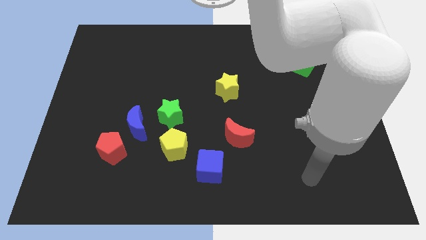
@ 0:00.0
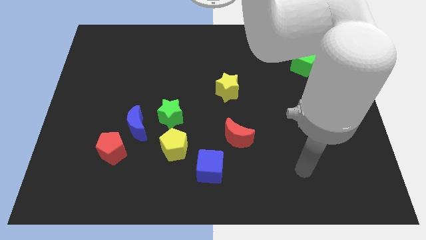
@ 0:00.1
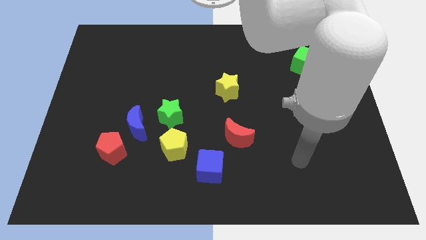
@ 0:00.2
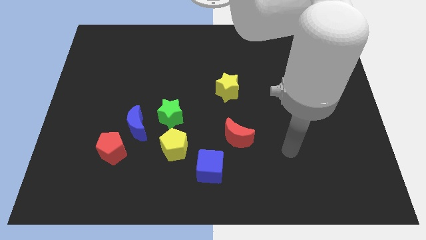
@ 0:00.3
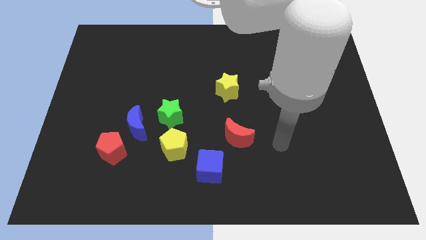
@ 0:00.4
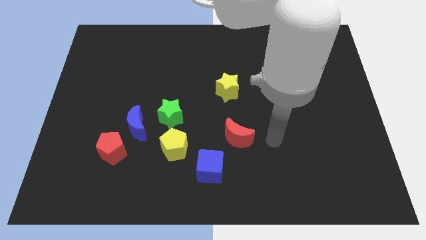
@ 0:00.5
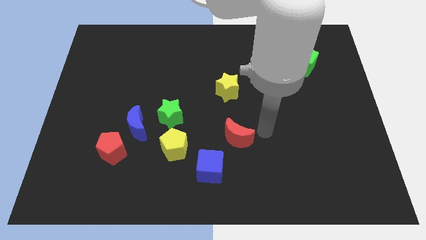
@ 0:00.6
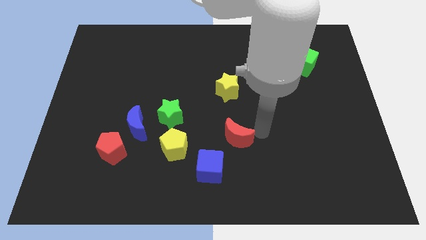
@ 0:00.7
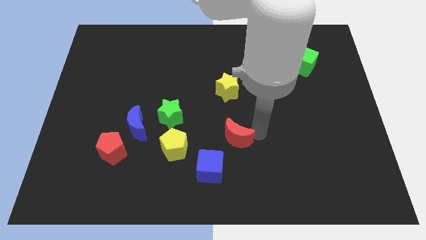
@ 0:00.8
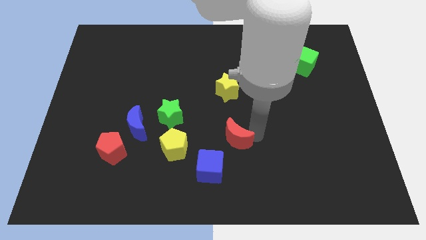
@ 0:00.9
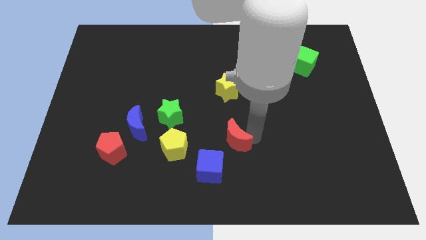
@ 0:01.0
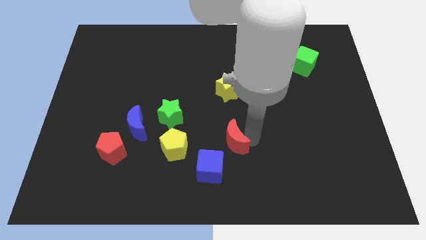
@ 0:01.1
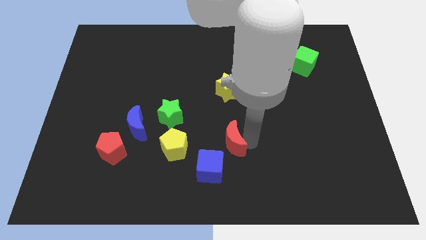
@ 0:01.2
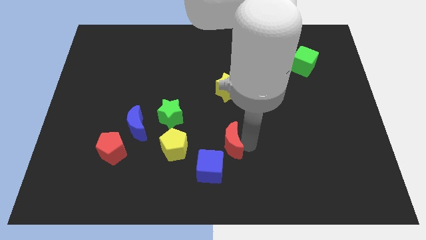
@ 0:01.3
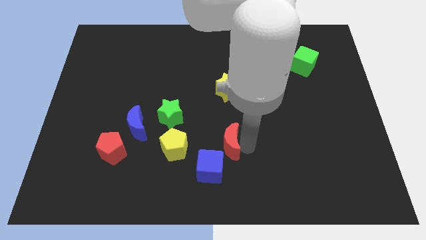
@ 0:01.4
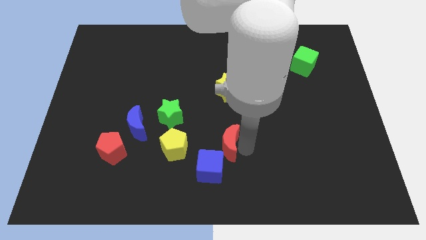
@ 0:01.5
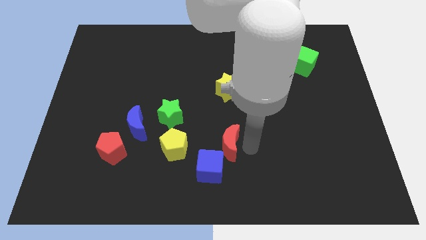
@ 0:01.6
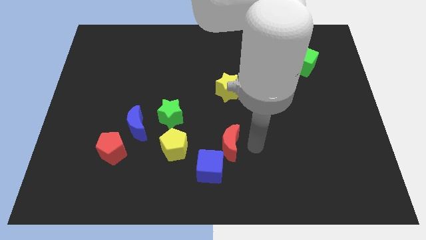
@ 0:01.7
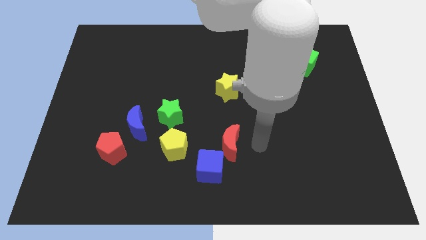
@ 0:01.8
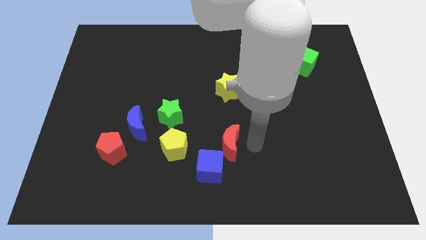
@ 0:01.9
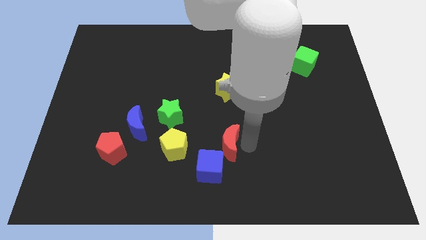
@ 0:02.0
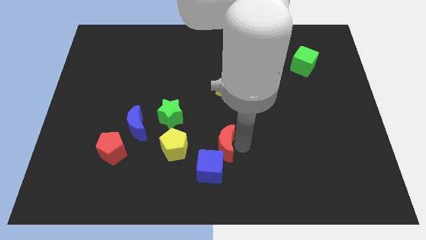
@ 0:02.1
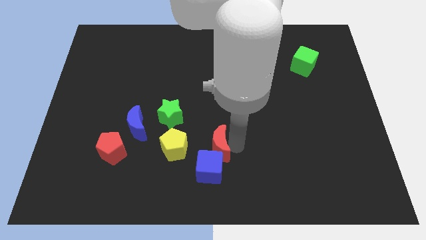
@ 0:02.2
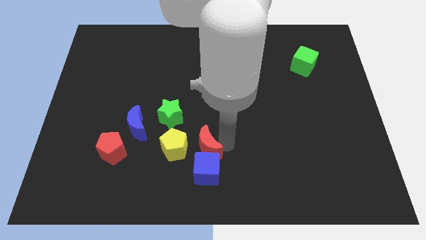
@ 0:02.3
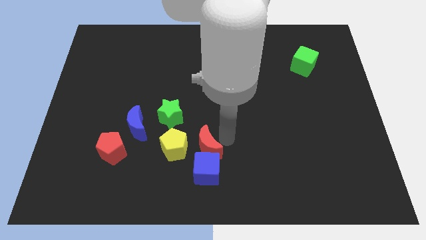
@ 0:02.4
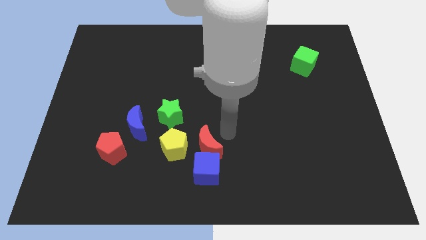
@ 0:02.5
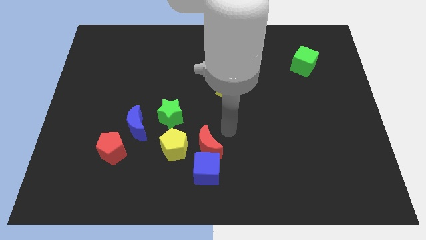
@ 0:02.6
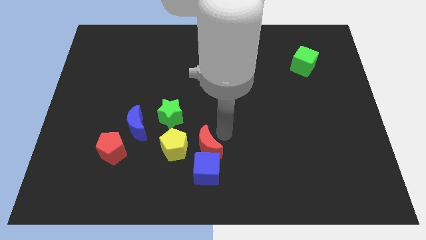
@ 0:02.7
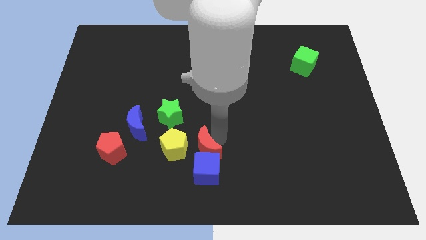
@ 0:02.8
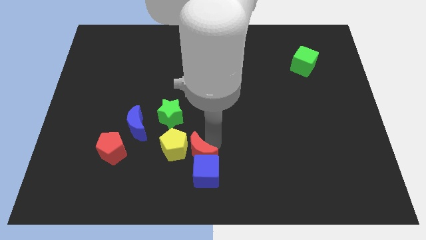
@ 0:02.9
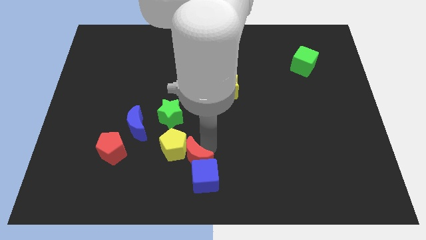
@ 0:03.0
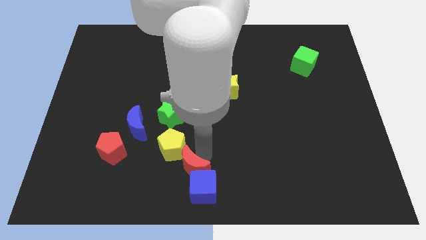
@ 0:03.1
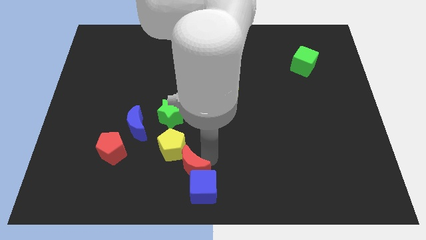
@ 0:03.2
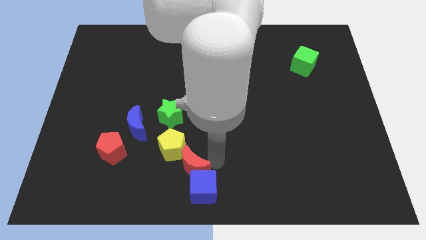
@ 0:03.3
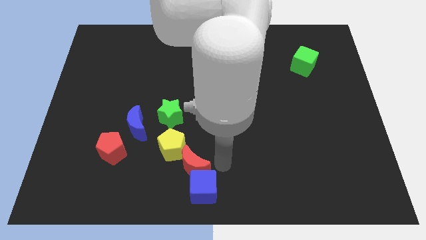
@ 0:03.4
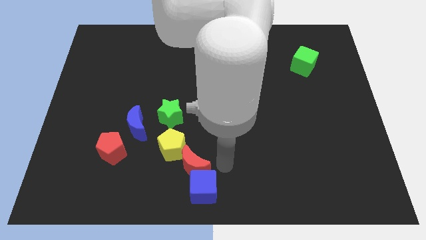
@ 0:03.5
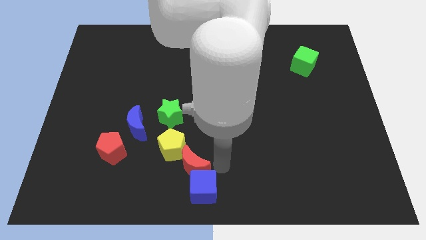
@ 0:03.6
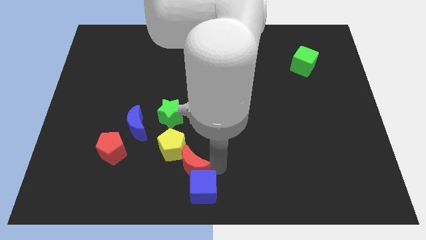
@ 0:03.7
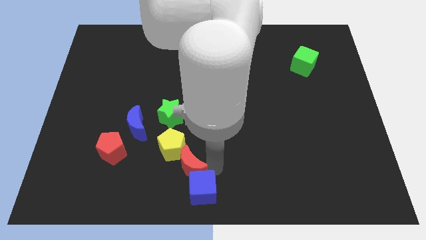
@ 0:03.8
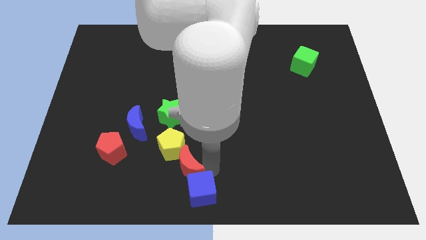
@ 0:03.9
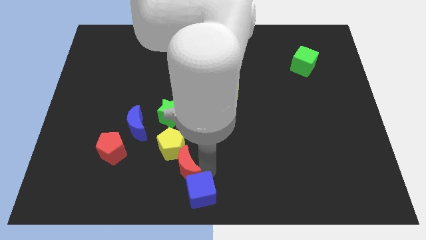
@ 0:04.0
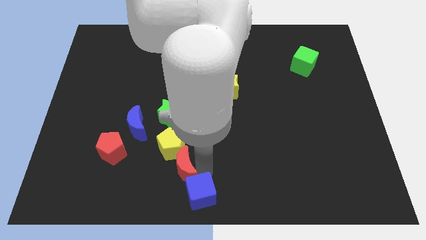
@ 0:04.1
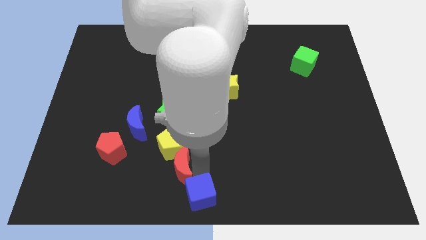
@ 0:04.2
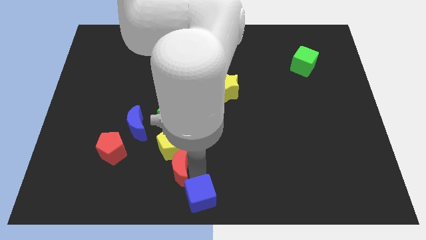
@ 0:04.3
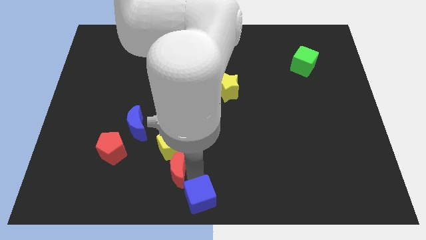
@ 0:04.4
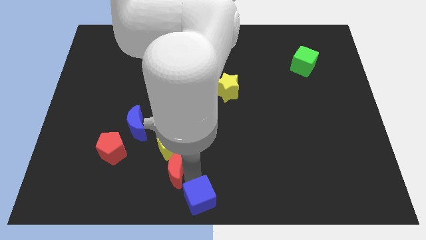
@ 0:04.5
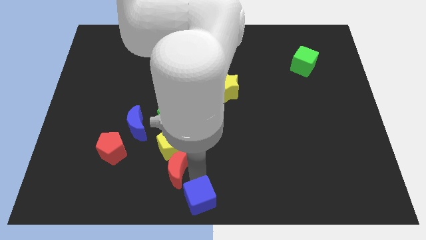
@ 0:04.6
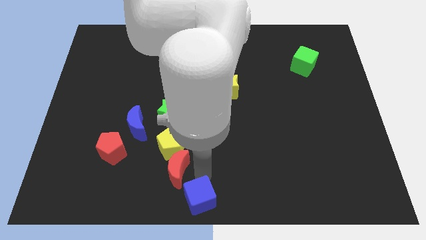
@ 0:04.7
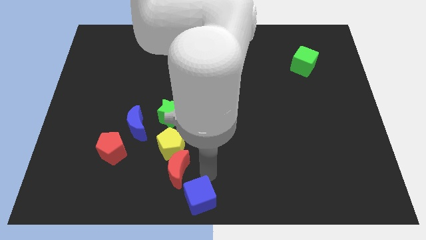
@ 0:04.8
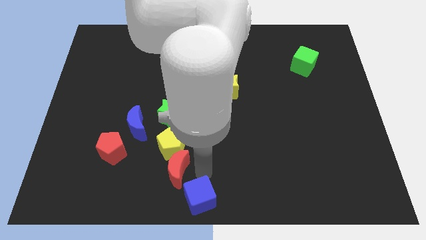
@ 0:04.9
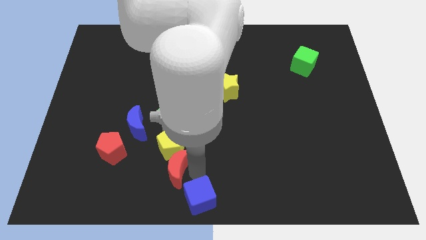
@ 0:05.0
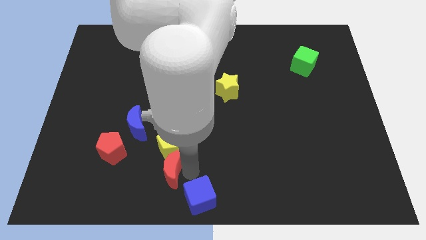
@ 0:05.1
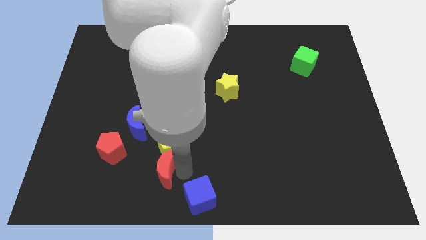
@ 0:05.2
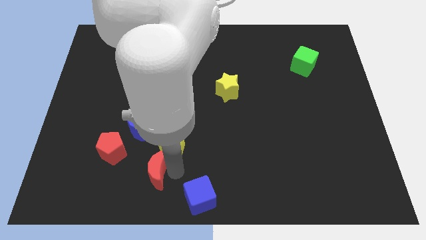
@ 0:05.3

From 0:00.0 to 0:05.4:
put the red moon diagonally down and to the right of the red pentagon

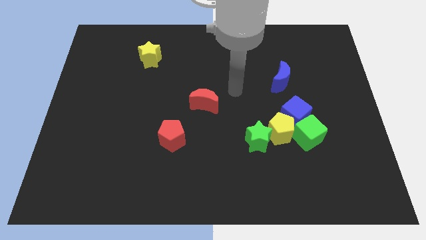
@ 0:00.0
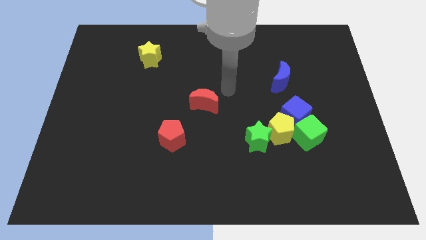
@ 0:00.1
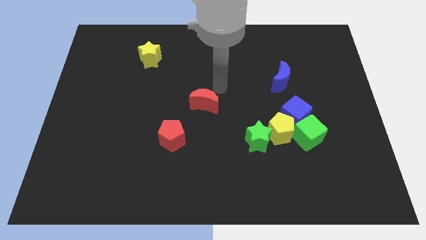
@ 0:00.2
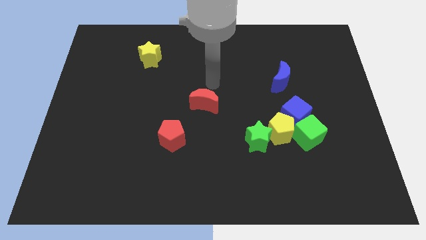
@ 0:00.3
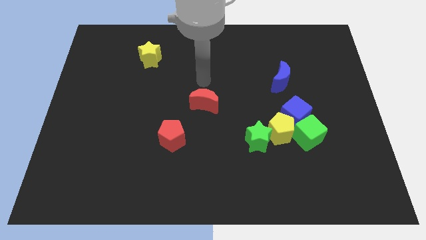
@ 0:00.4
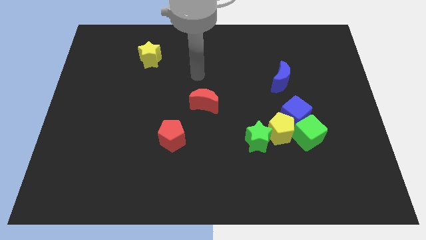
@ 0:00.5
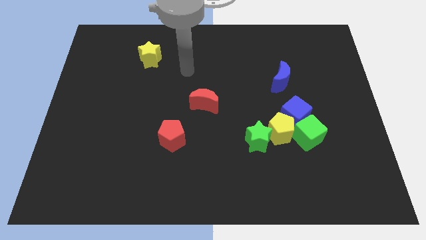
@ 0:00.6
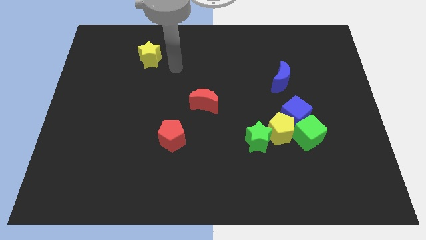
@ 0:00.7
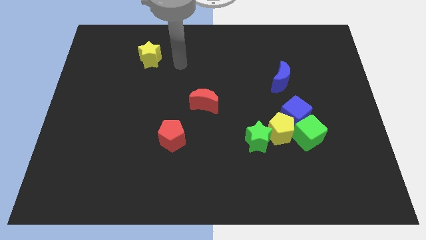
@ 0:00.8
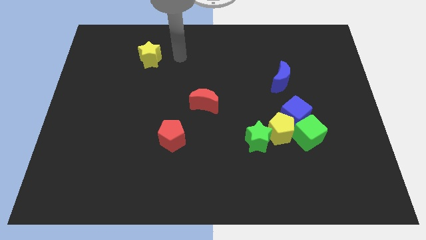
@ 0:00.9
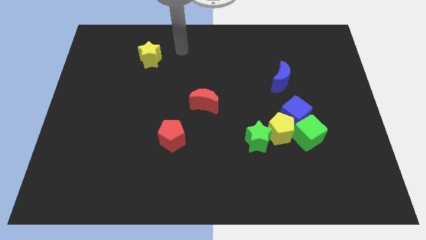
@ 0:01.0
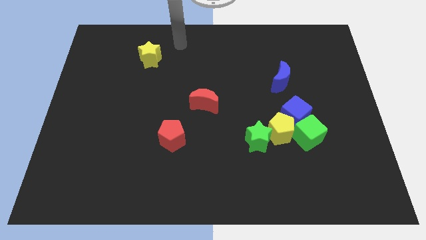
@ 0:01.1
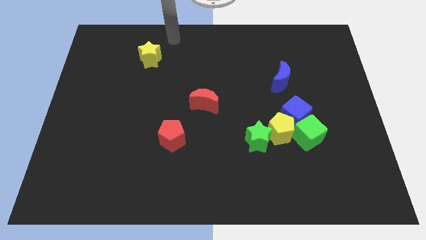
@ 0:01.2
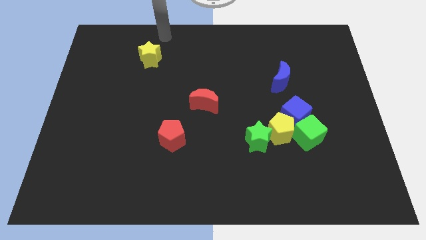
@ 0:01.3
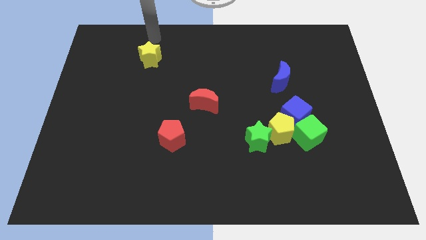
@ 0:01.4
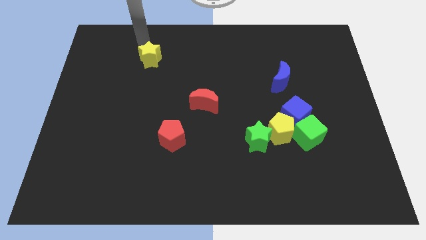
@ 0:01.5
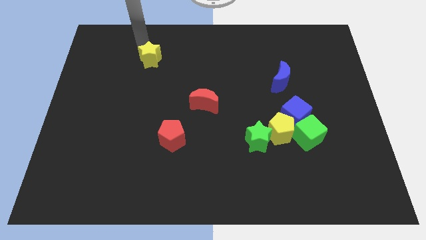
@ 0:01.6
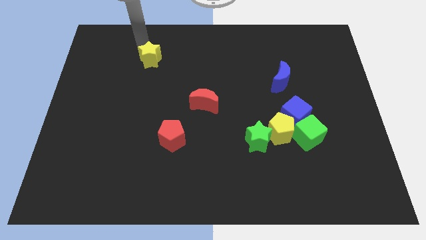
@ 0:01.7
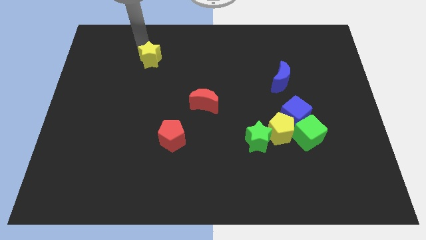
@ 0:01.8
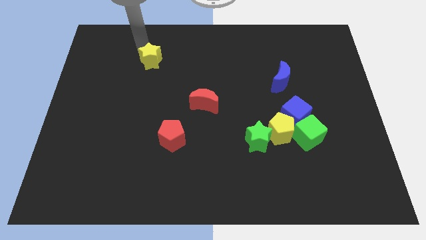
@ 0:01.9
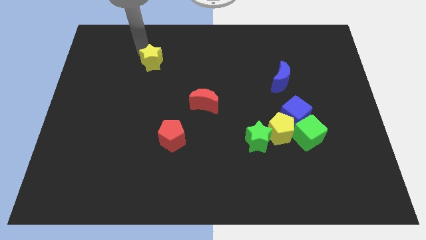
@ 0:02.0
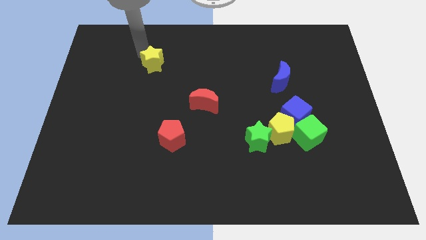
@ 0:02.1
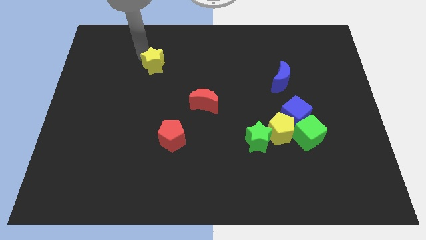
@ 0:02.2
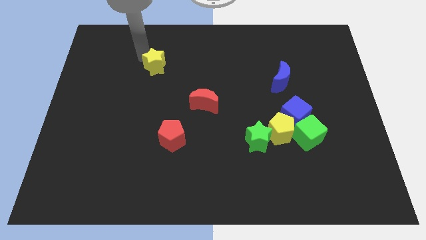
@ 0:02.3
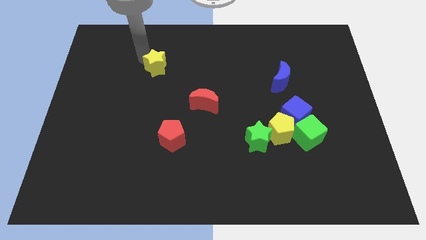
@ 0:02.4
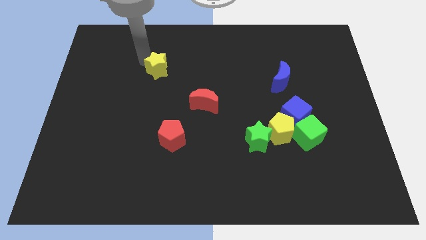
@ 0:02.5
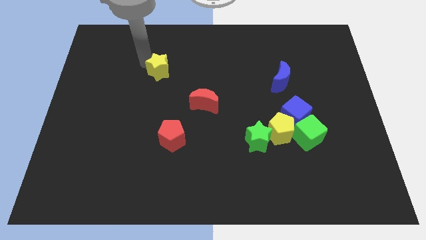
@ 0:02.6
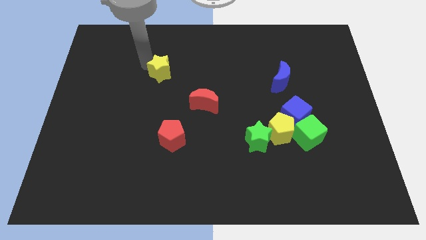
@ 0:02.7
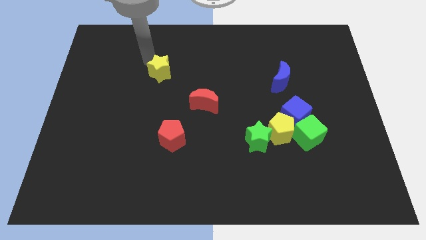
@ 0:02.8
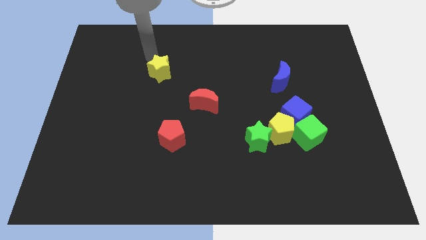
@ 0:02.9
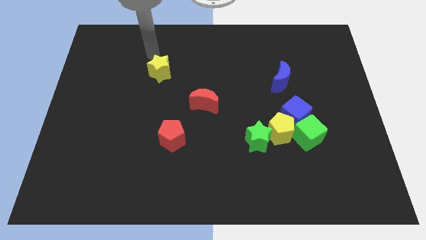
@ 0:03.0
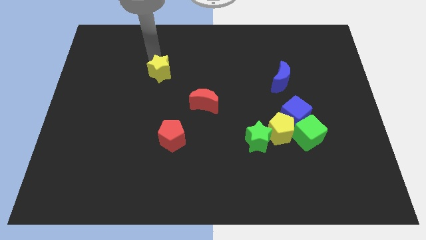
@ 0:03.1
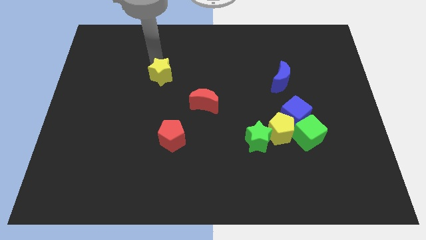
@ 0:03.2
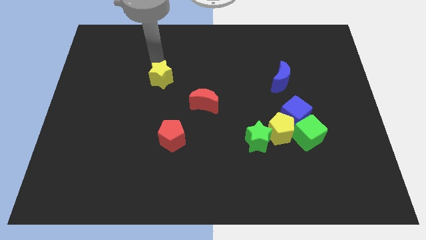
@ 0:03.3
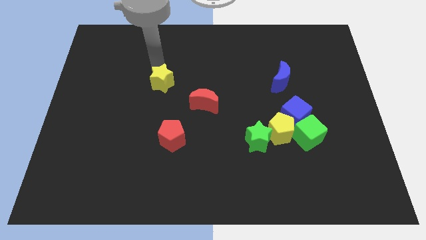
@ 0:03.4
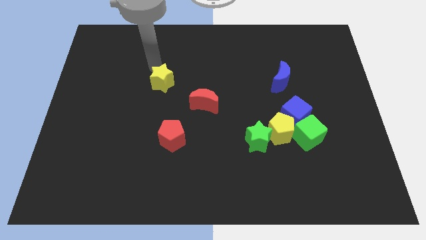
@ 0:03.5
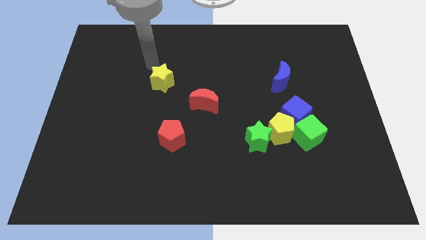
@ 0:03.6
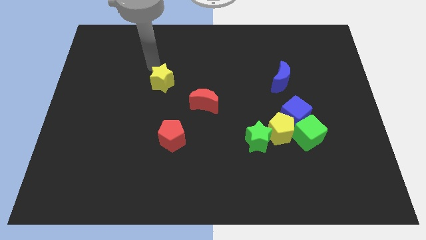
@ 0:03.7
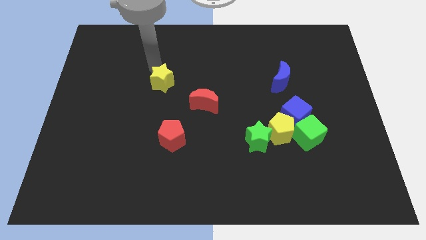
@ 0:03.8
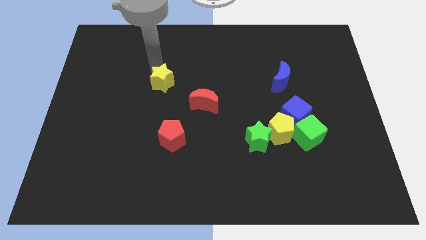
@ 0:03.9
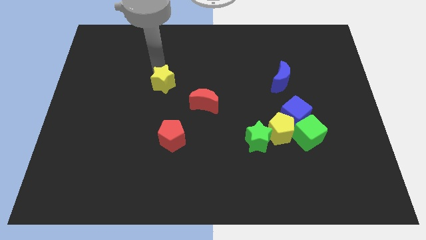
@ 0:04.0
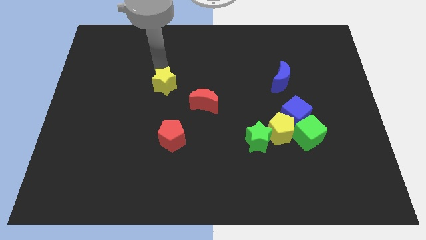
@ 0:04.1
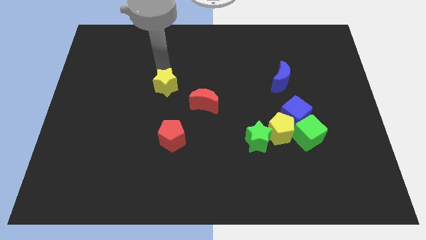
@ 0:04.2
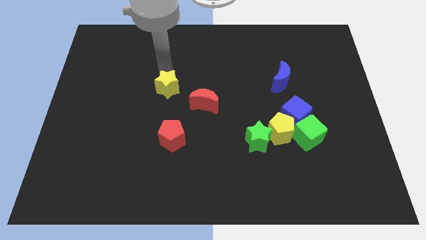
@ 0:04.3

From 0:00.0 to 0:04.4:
put the yellow star above the red pentagon
